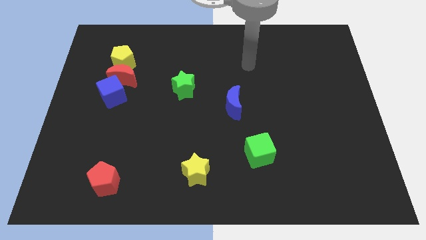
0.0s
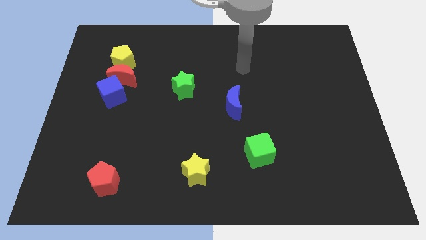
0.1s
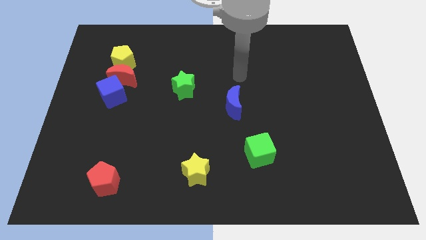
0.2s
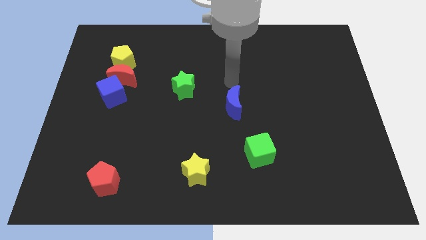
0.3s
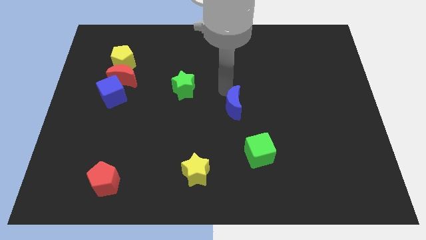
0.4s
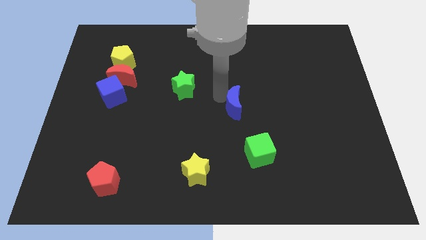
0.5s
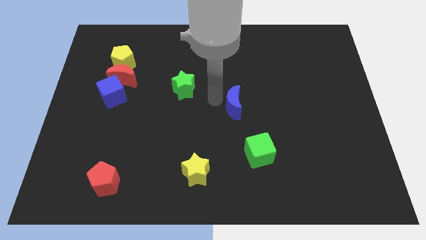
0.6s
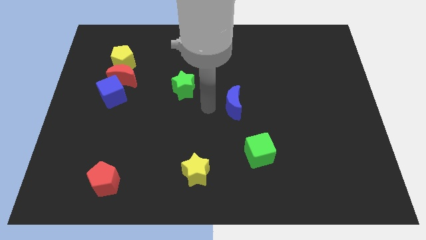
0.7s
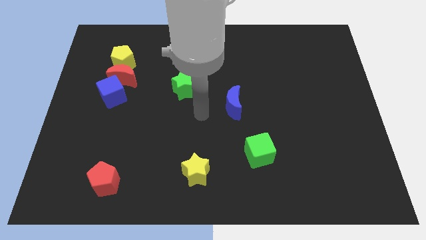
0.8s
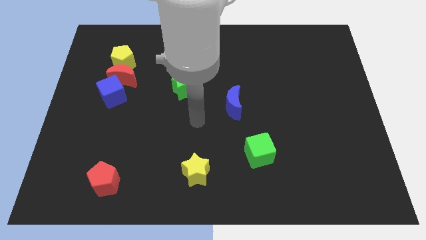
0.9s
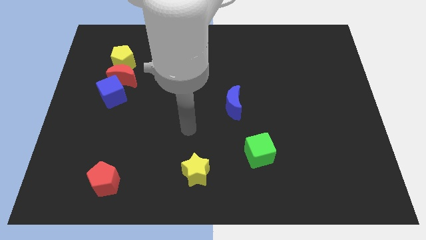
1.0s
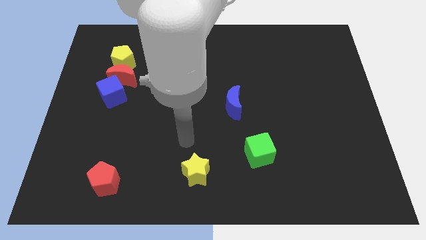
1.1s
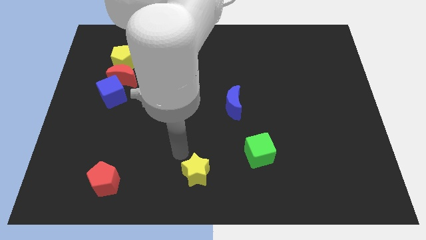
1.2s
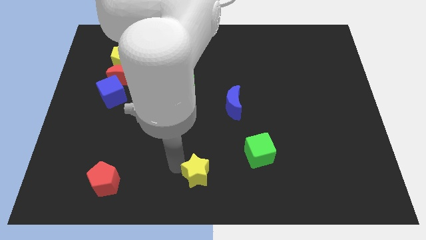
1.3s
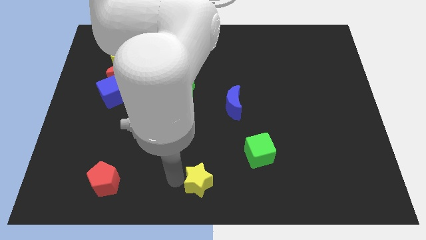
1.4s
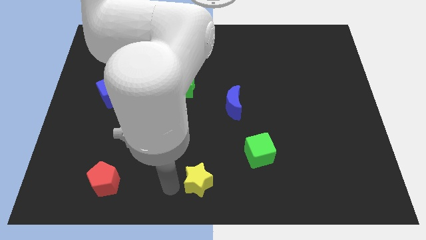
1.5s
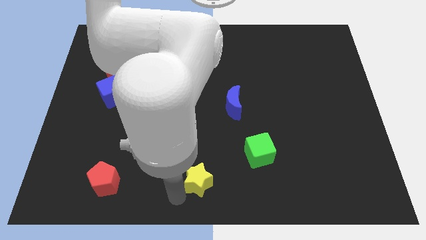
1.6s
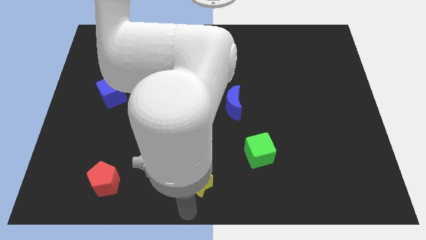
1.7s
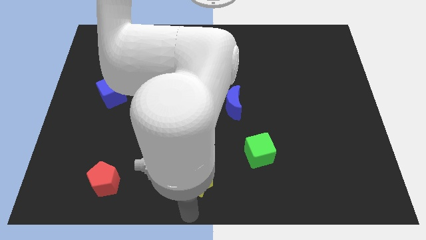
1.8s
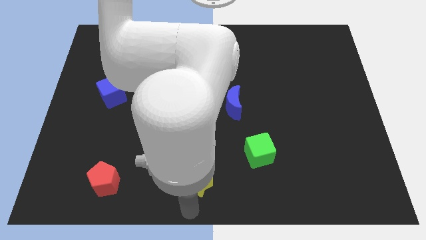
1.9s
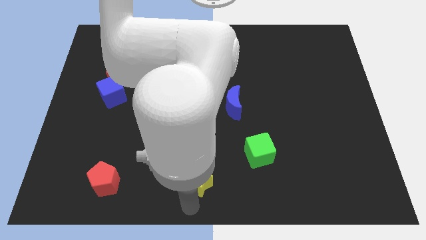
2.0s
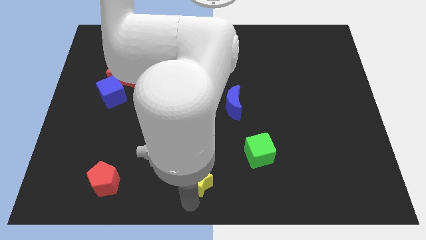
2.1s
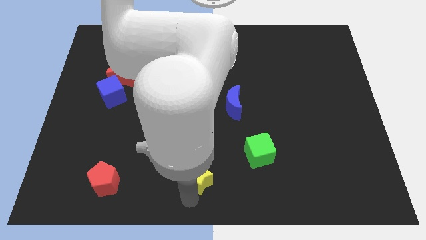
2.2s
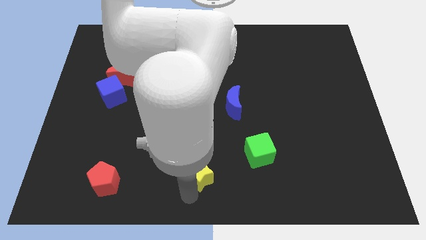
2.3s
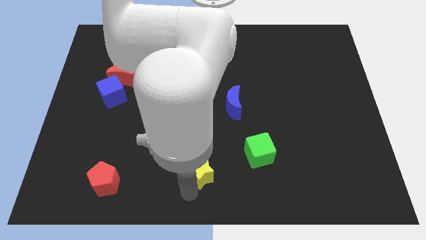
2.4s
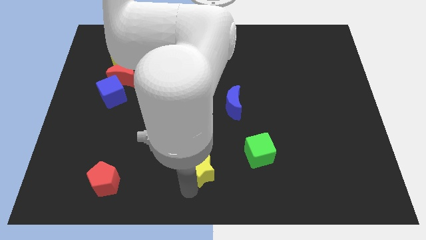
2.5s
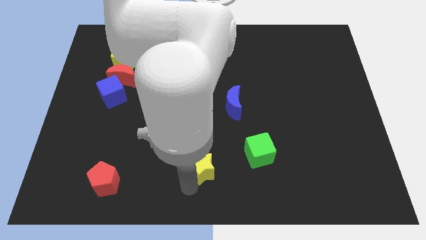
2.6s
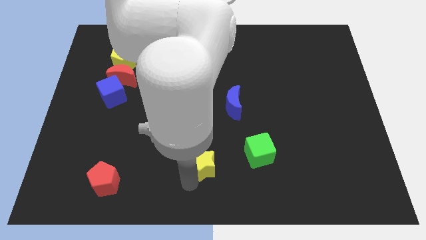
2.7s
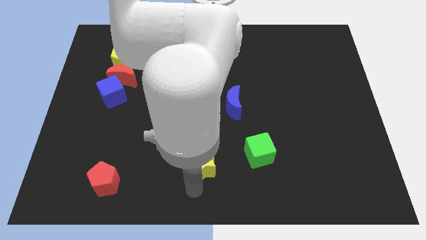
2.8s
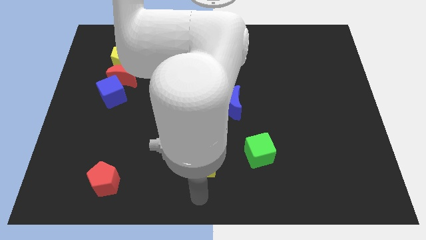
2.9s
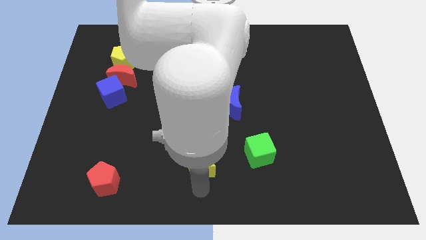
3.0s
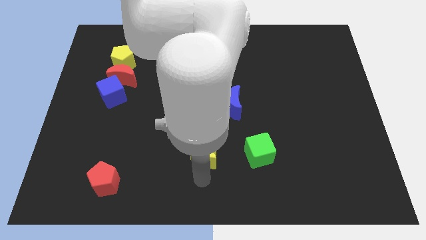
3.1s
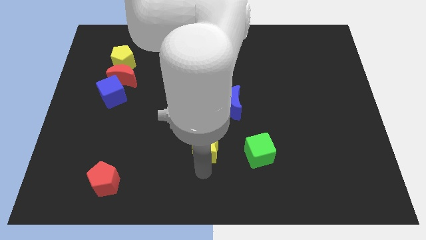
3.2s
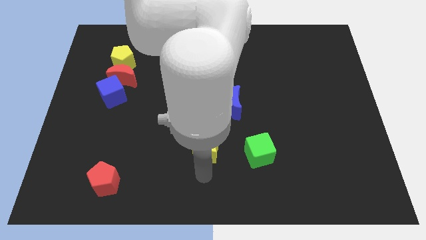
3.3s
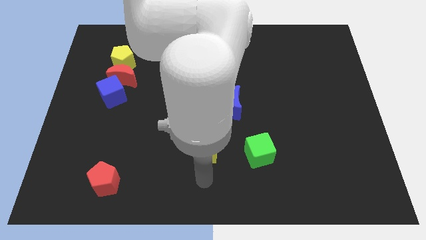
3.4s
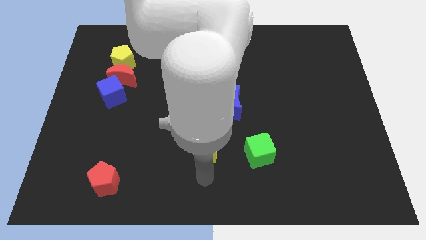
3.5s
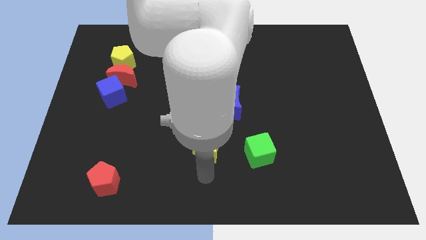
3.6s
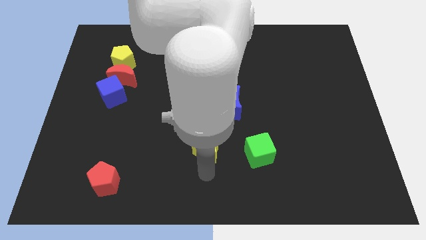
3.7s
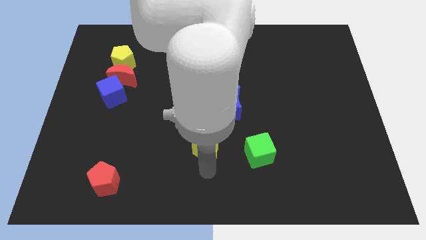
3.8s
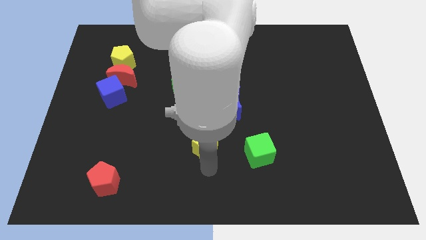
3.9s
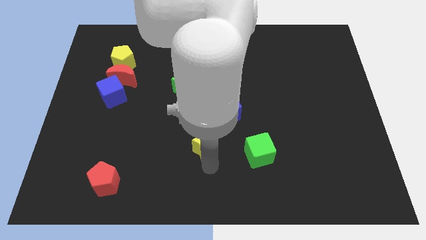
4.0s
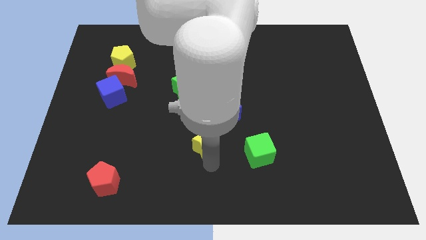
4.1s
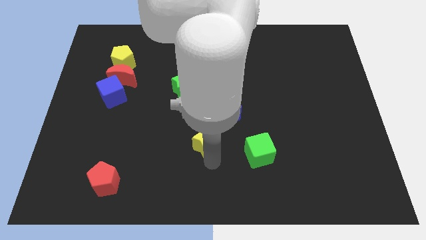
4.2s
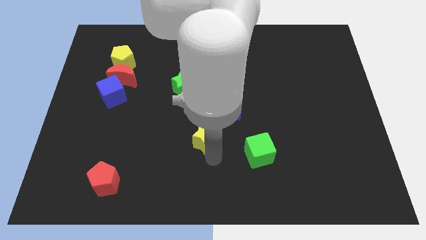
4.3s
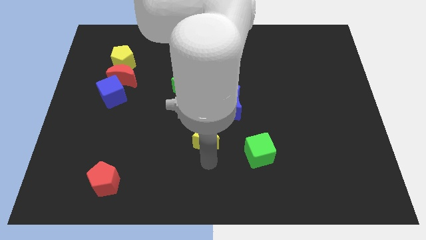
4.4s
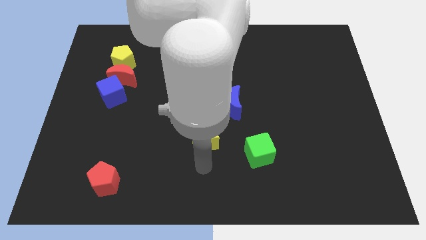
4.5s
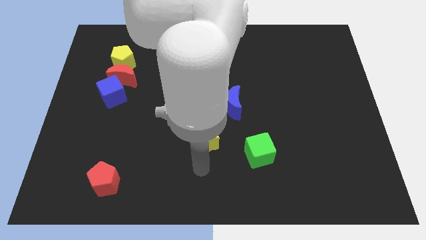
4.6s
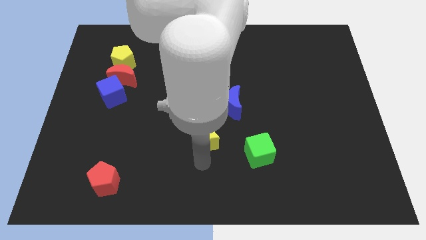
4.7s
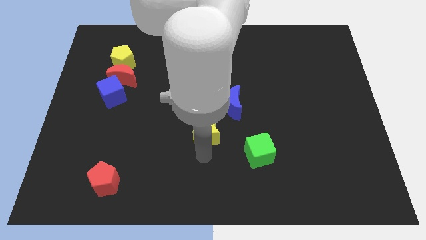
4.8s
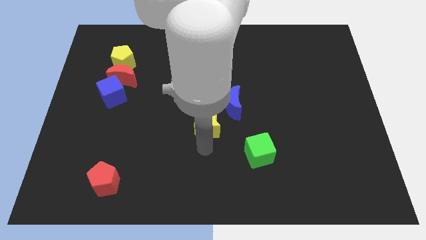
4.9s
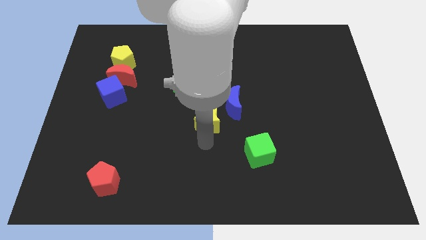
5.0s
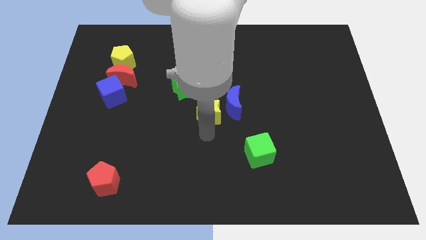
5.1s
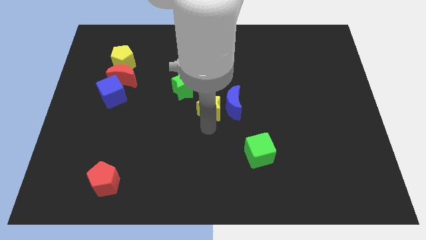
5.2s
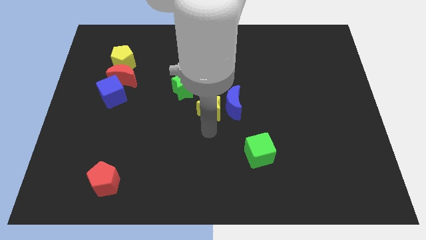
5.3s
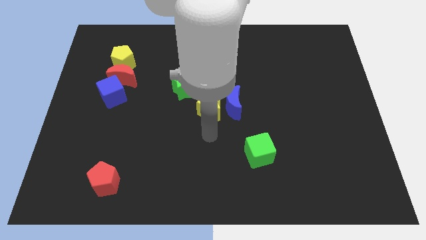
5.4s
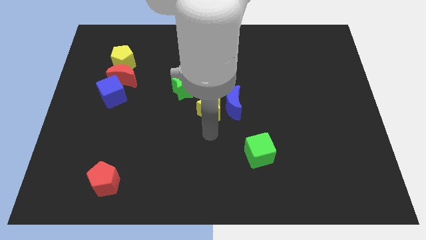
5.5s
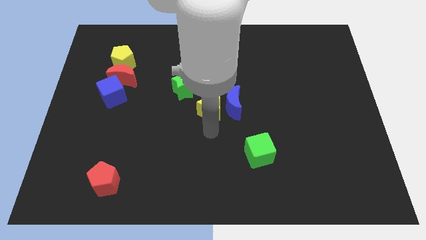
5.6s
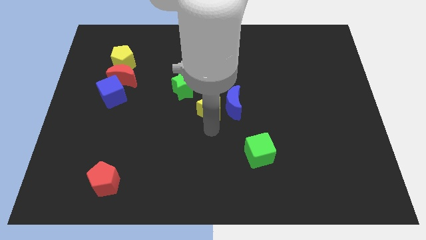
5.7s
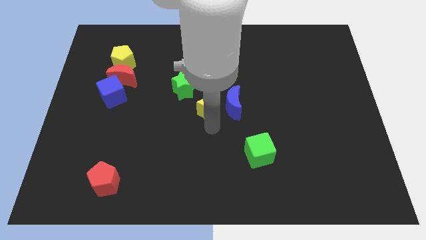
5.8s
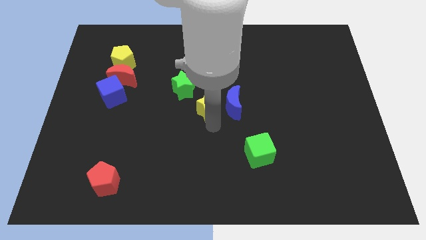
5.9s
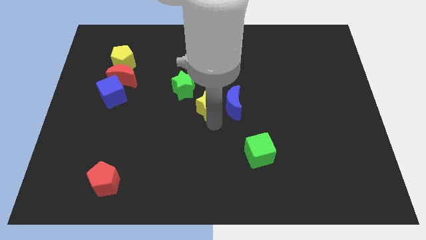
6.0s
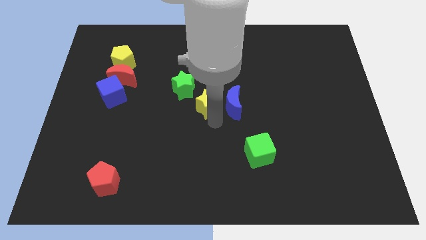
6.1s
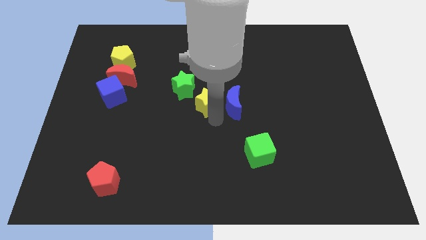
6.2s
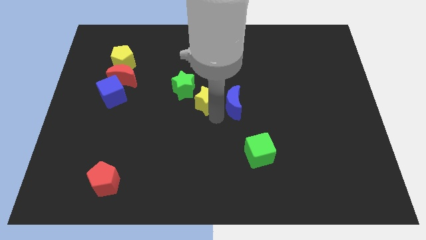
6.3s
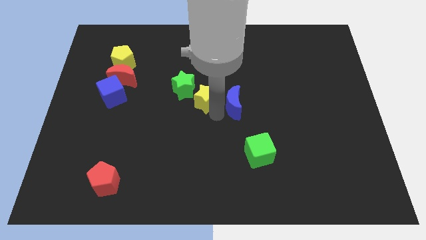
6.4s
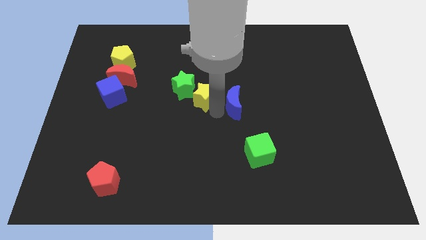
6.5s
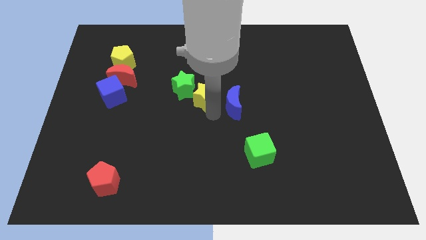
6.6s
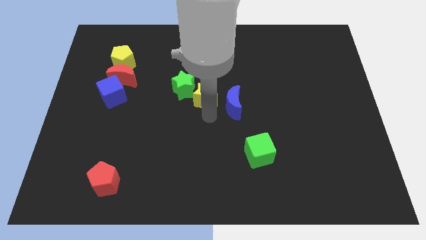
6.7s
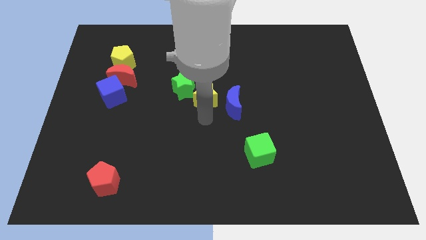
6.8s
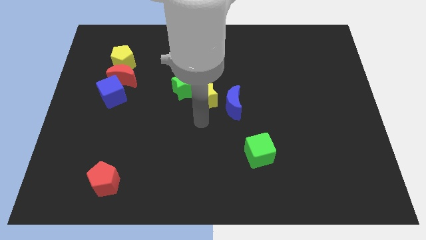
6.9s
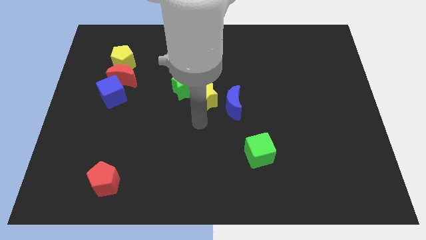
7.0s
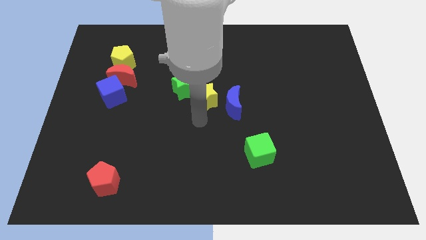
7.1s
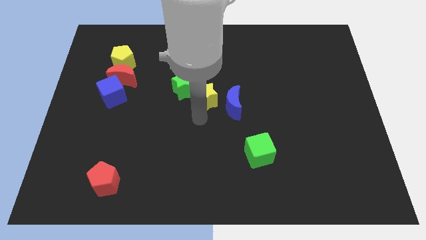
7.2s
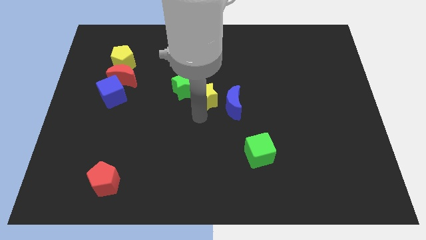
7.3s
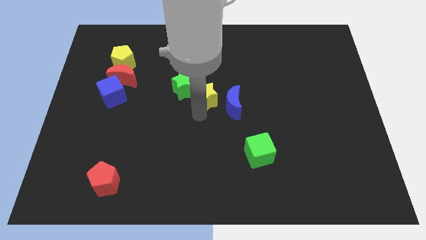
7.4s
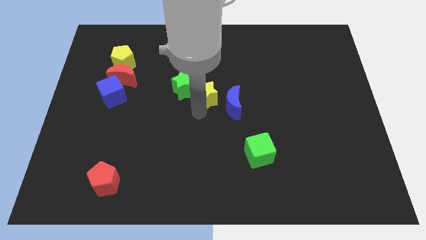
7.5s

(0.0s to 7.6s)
slide the yellow star upwards

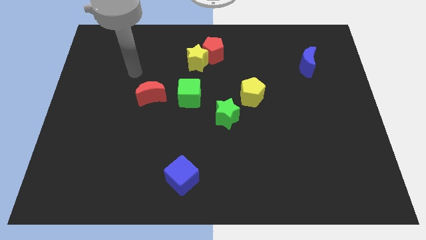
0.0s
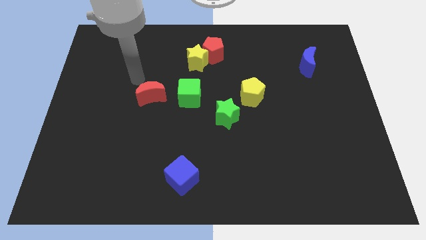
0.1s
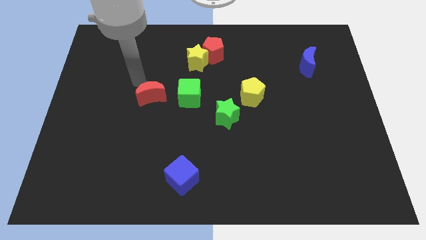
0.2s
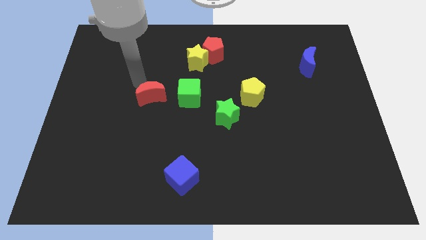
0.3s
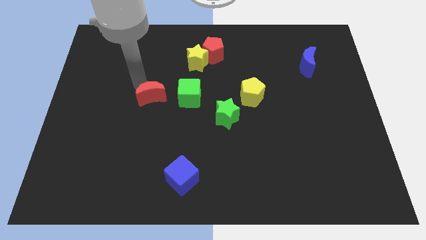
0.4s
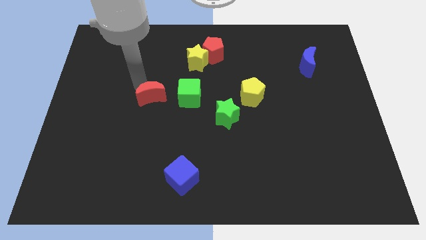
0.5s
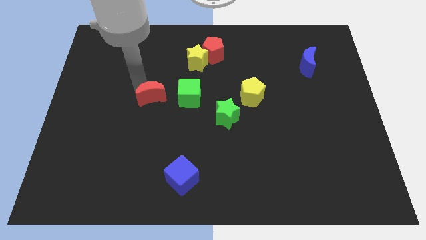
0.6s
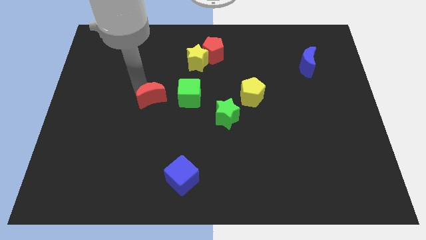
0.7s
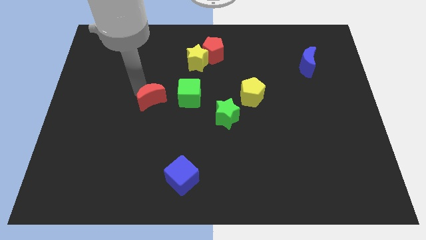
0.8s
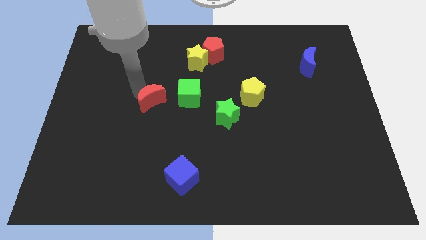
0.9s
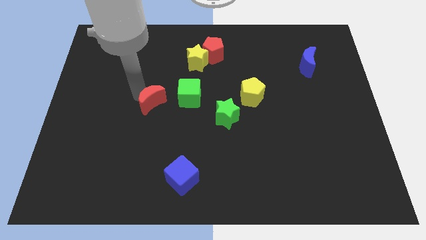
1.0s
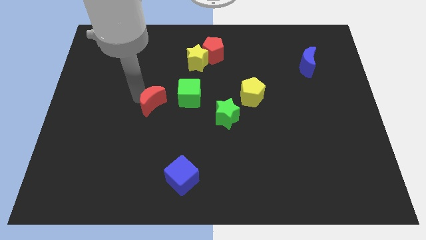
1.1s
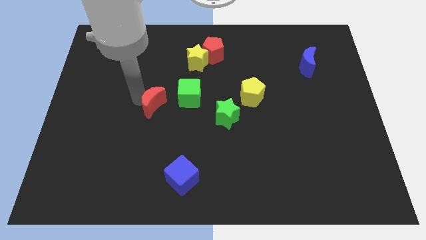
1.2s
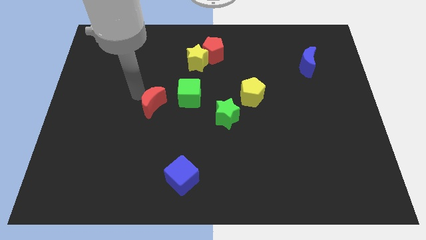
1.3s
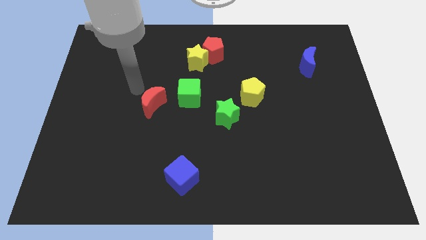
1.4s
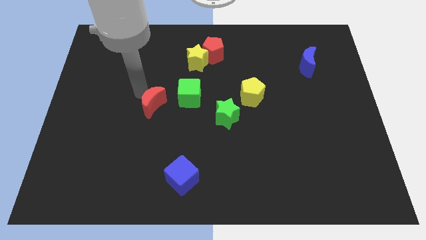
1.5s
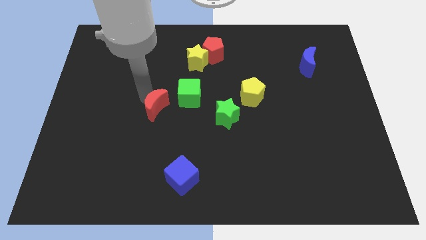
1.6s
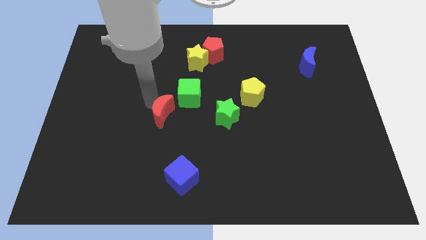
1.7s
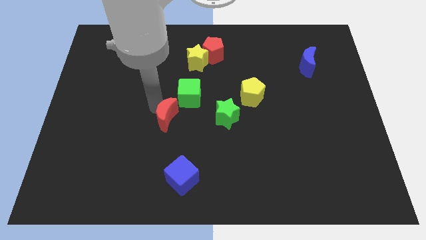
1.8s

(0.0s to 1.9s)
slide the red moon down and then right a bit
